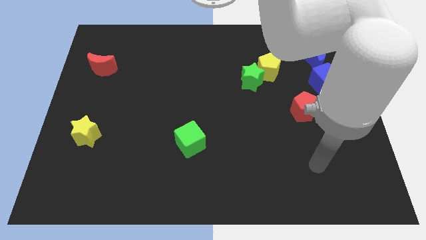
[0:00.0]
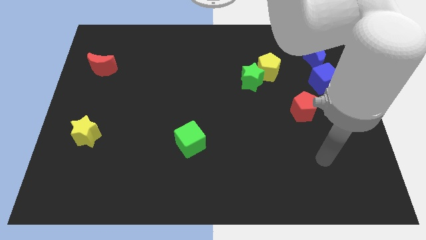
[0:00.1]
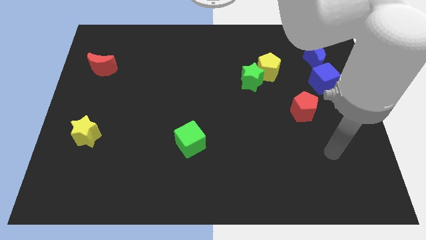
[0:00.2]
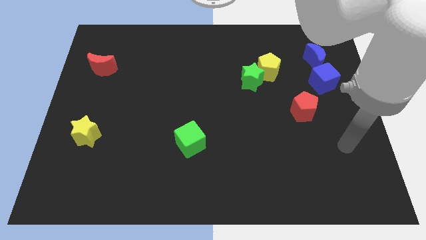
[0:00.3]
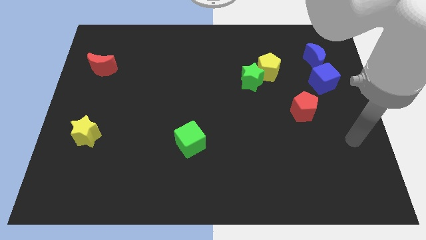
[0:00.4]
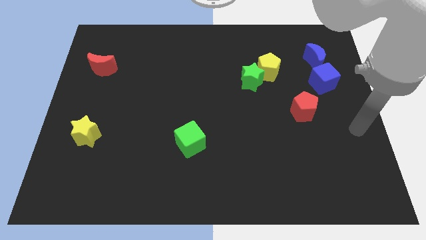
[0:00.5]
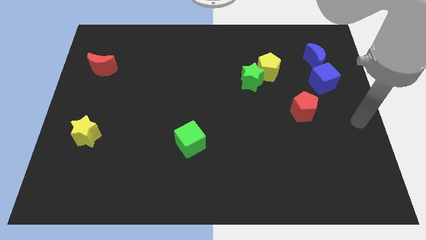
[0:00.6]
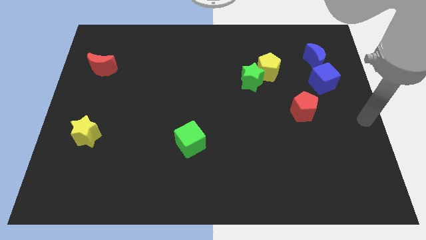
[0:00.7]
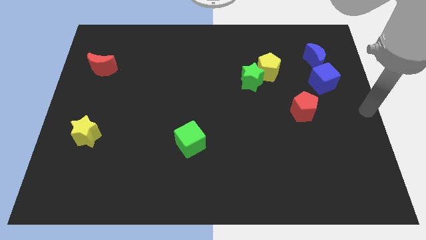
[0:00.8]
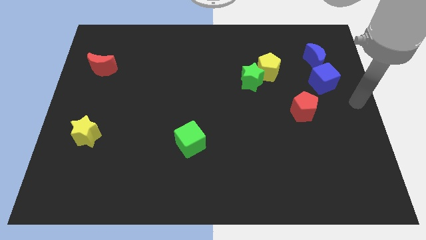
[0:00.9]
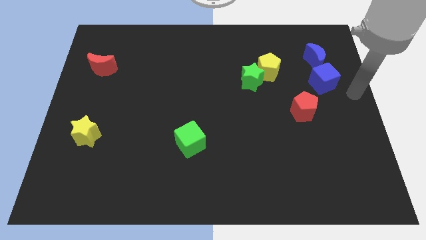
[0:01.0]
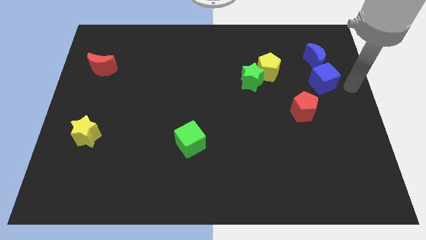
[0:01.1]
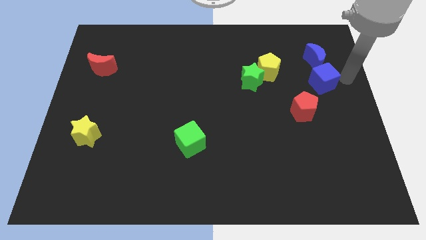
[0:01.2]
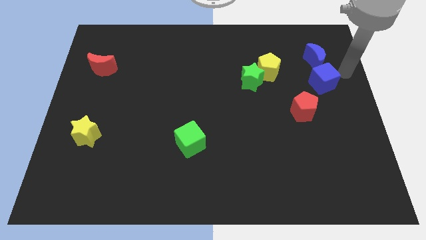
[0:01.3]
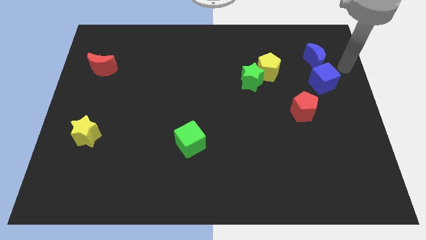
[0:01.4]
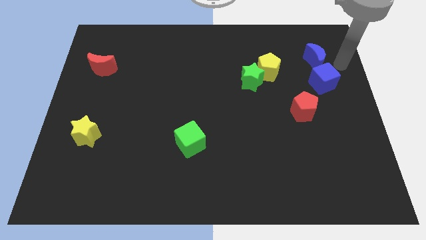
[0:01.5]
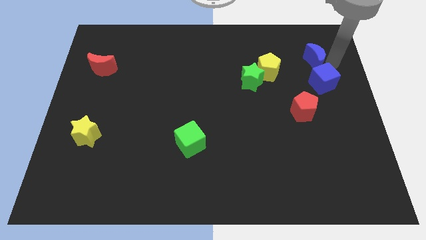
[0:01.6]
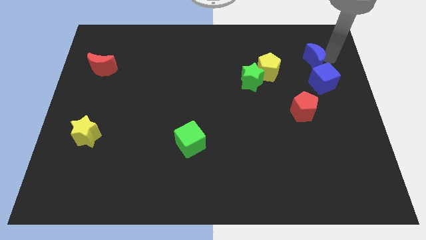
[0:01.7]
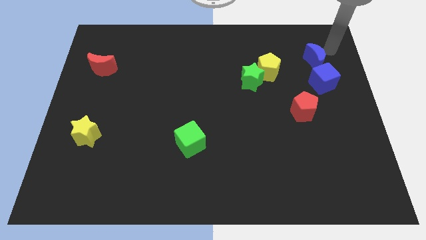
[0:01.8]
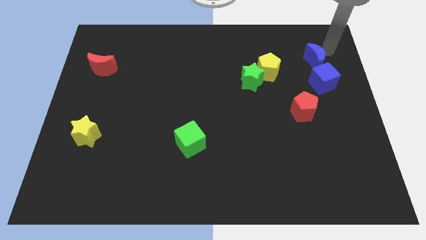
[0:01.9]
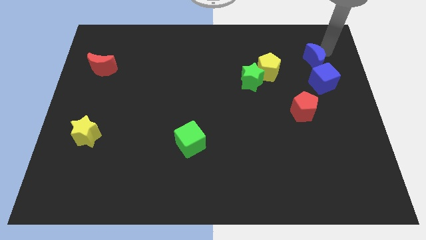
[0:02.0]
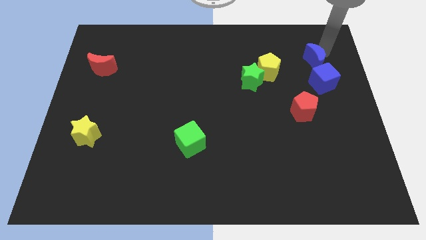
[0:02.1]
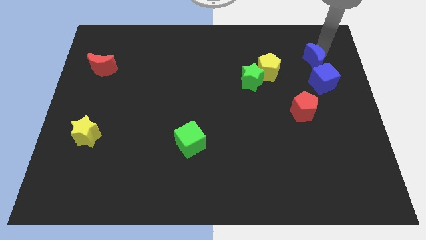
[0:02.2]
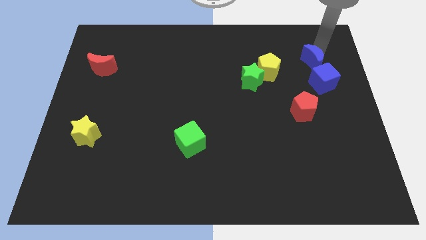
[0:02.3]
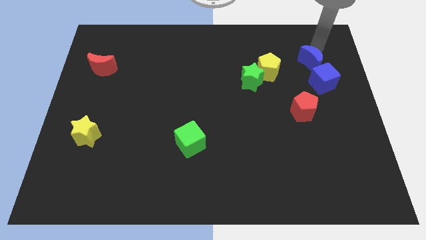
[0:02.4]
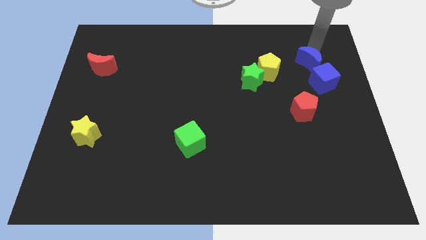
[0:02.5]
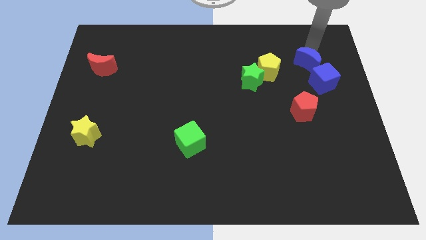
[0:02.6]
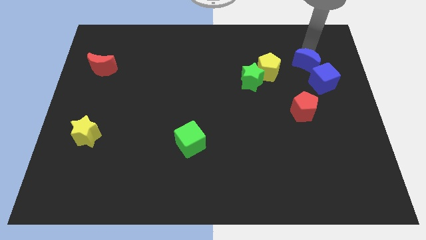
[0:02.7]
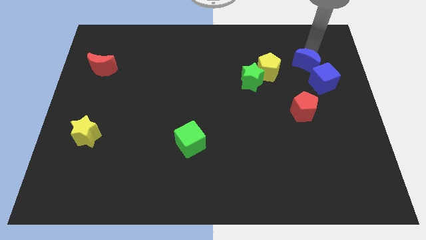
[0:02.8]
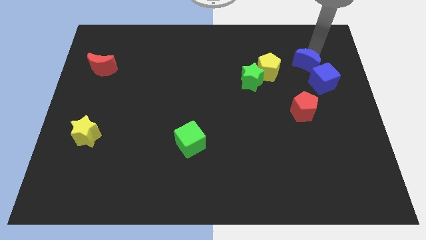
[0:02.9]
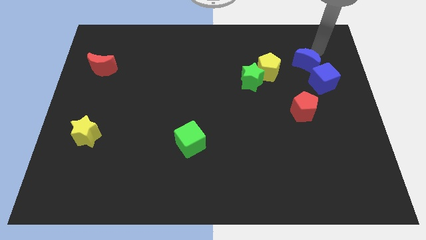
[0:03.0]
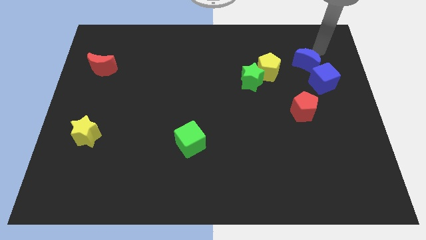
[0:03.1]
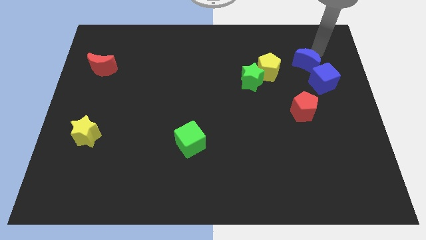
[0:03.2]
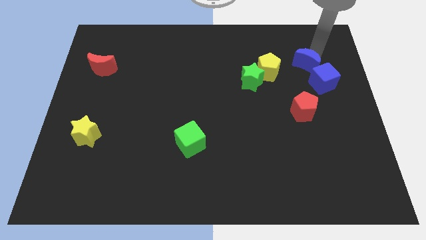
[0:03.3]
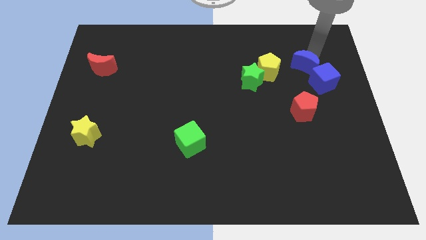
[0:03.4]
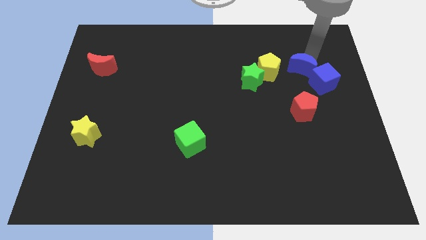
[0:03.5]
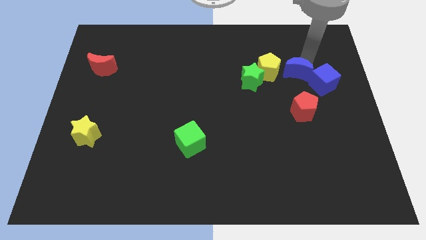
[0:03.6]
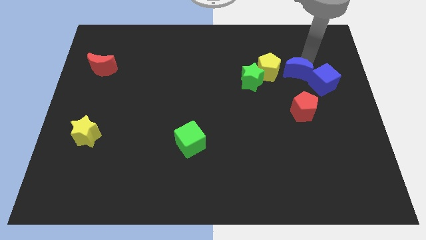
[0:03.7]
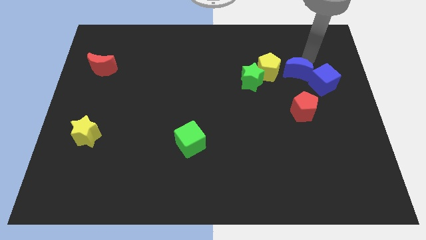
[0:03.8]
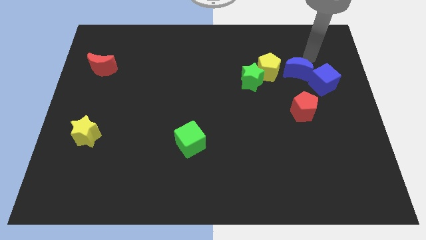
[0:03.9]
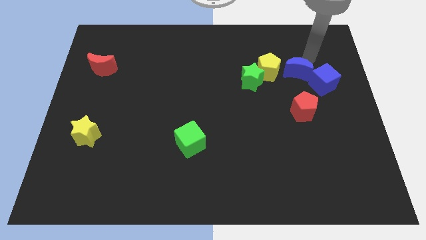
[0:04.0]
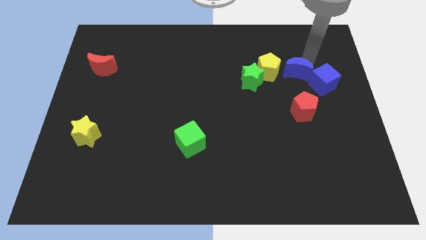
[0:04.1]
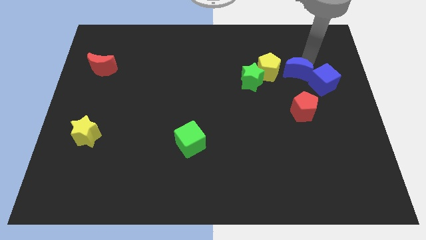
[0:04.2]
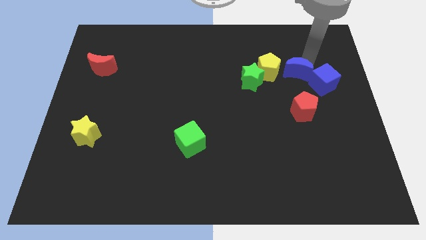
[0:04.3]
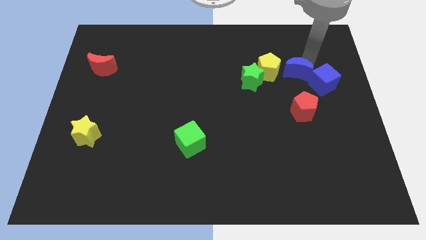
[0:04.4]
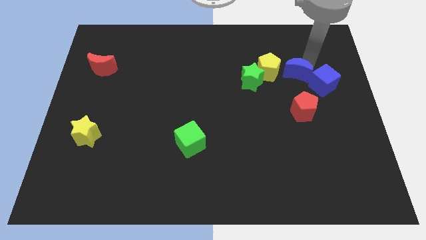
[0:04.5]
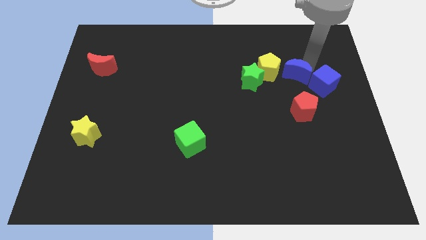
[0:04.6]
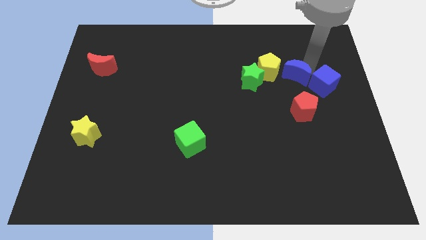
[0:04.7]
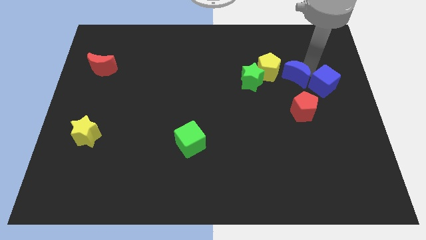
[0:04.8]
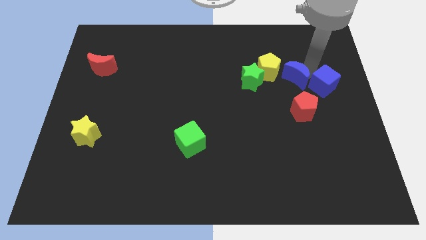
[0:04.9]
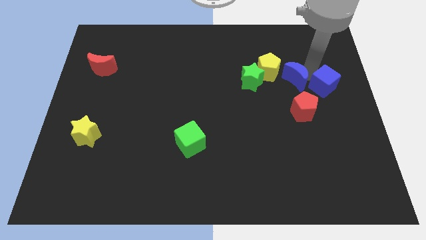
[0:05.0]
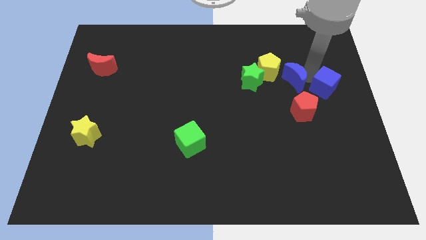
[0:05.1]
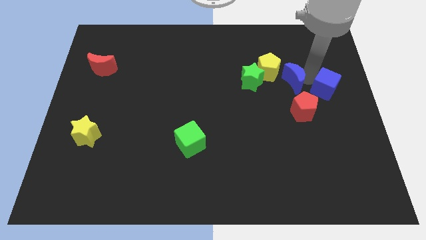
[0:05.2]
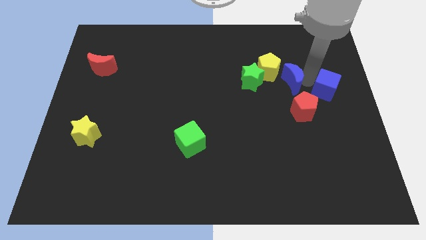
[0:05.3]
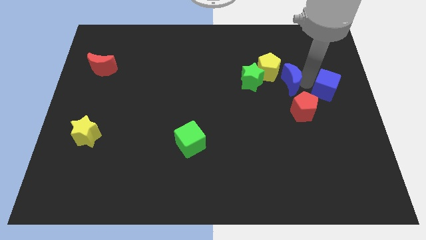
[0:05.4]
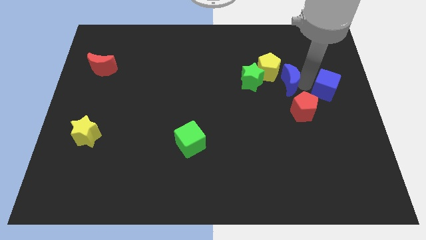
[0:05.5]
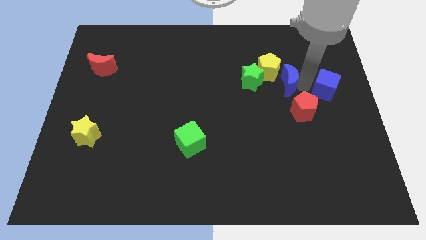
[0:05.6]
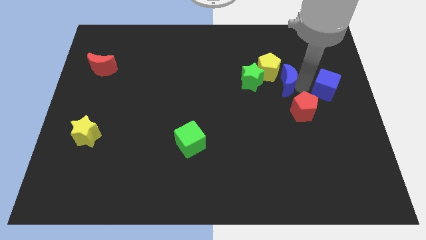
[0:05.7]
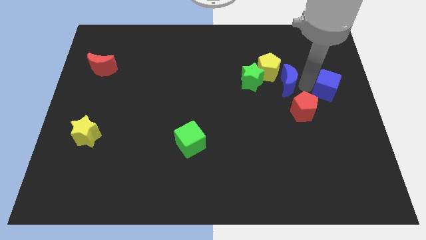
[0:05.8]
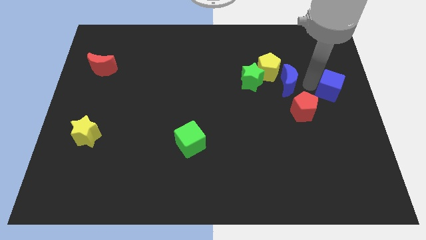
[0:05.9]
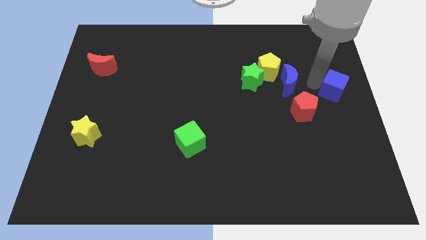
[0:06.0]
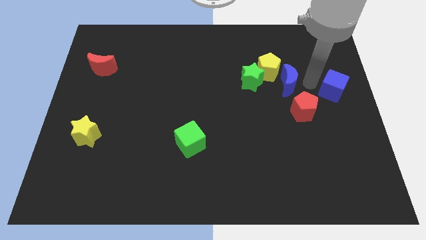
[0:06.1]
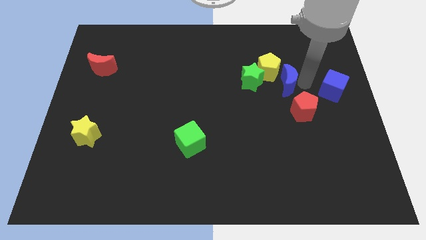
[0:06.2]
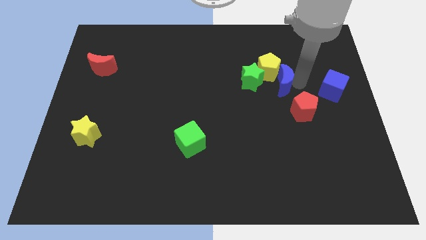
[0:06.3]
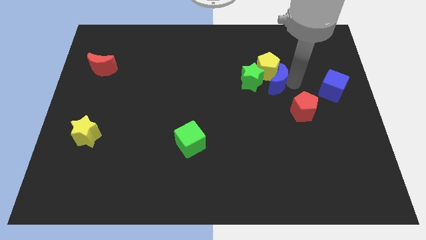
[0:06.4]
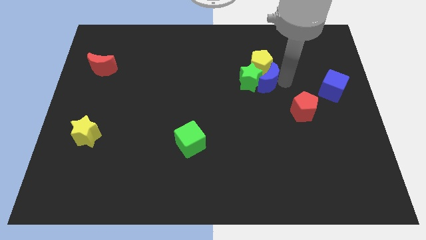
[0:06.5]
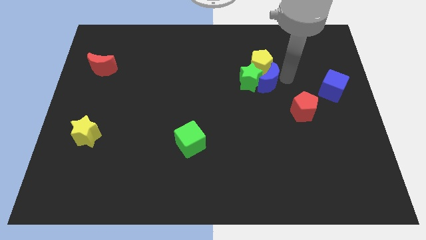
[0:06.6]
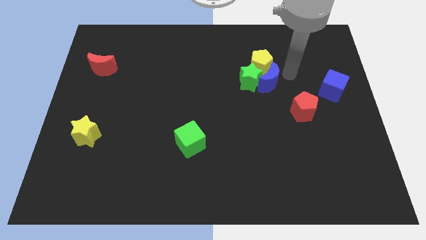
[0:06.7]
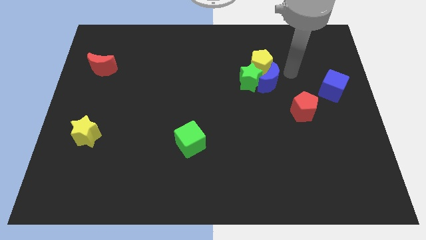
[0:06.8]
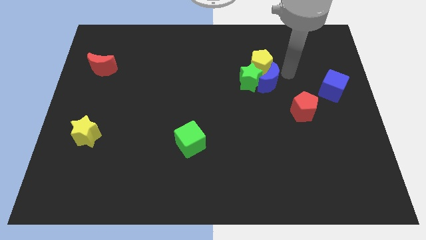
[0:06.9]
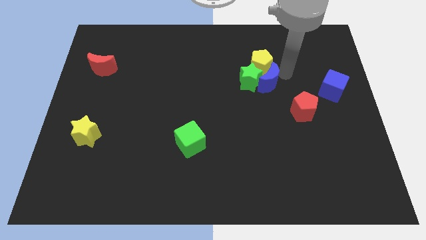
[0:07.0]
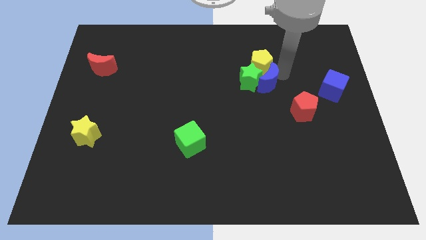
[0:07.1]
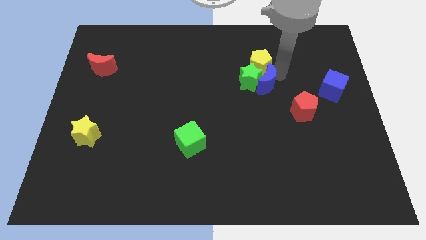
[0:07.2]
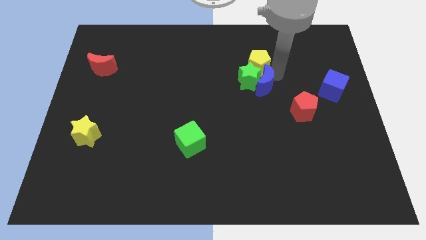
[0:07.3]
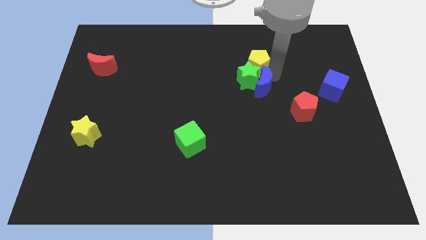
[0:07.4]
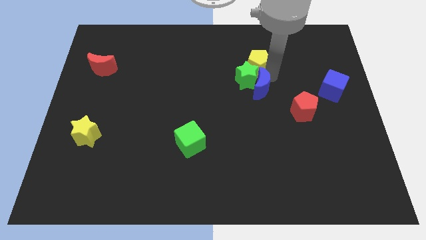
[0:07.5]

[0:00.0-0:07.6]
push the blue moon to the middle of the board
